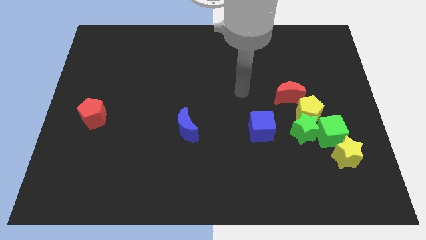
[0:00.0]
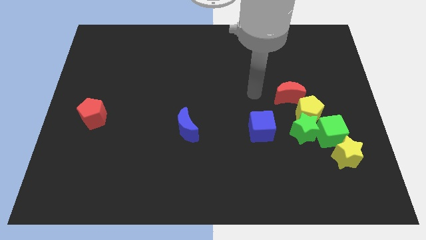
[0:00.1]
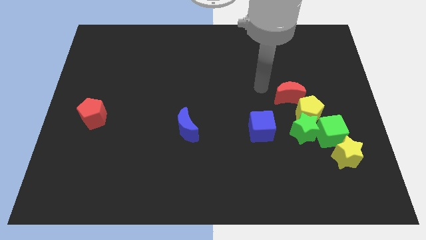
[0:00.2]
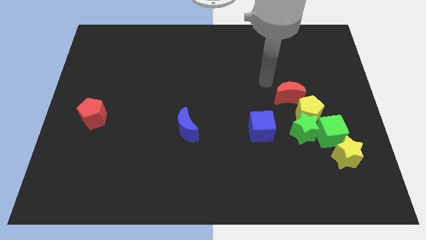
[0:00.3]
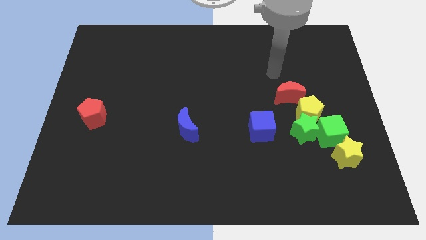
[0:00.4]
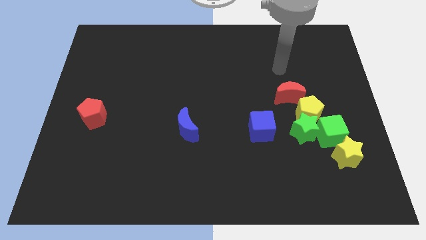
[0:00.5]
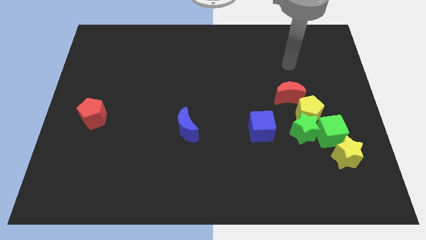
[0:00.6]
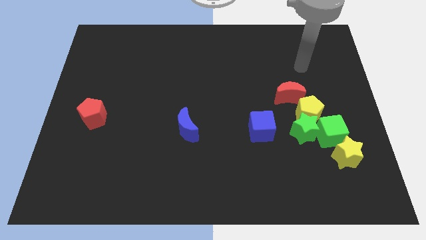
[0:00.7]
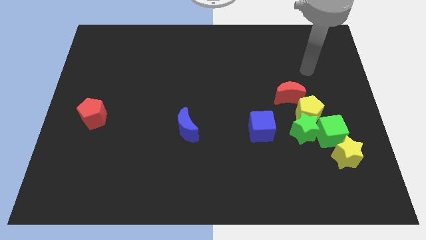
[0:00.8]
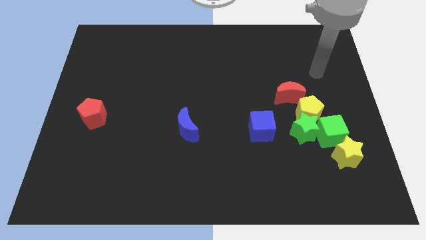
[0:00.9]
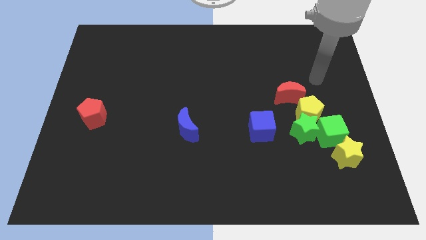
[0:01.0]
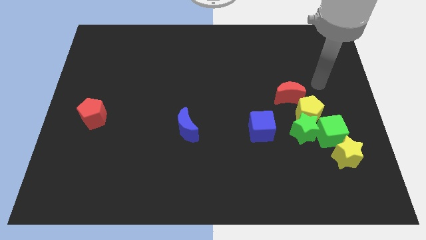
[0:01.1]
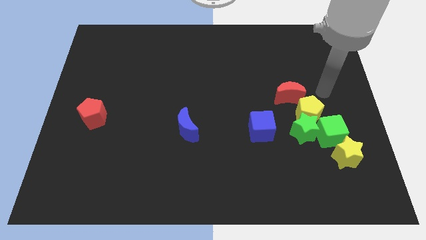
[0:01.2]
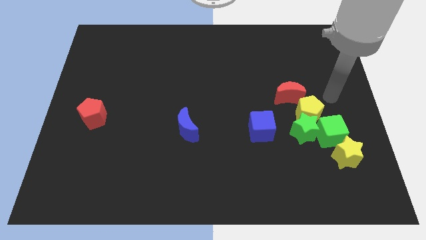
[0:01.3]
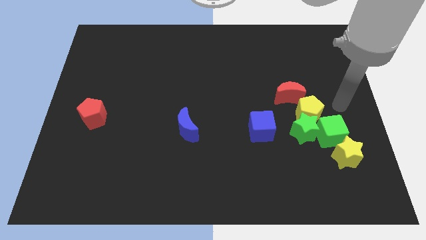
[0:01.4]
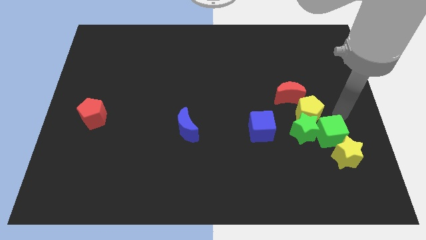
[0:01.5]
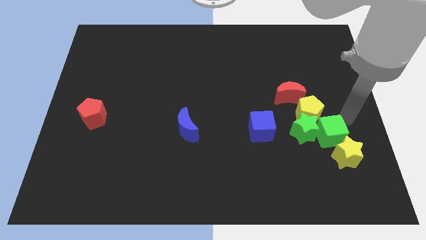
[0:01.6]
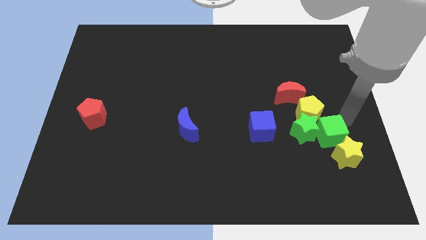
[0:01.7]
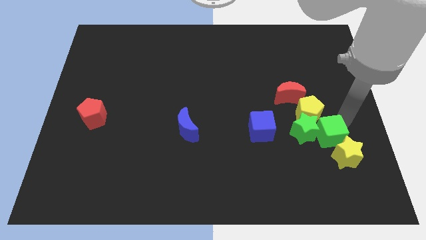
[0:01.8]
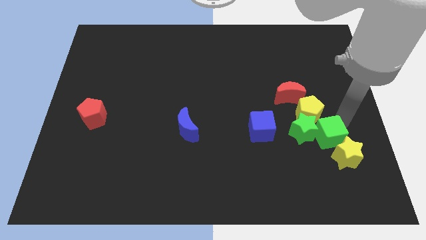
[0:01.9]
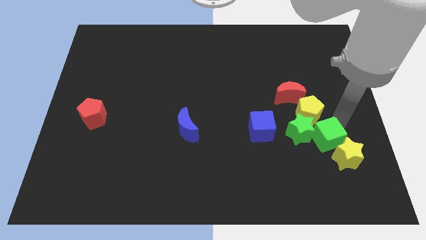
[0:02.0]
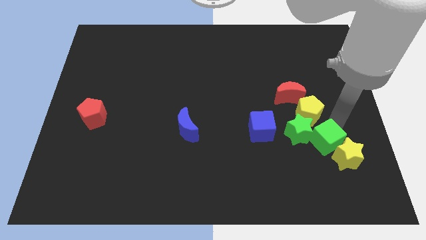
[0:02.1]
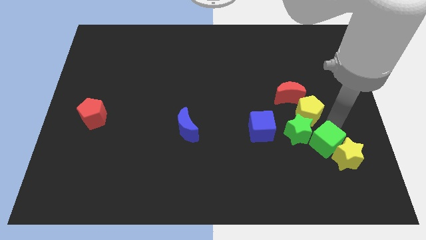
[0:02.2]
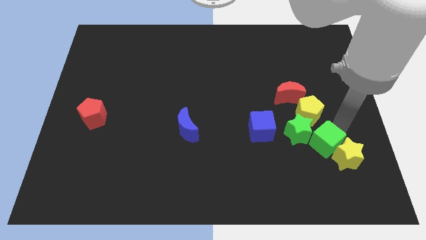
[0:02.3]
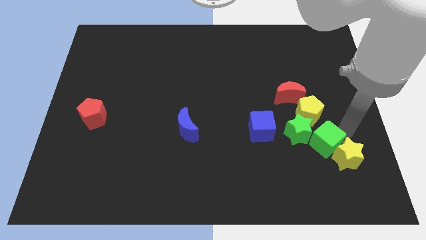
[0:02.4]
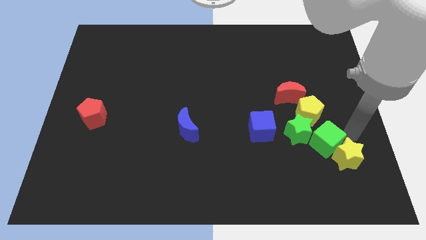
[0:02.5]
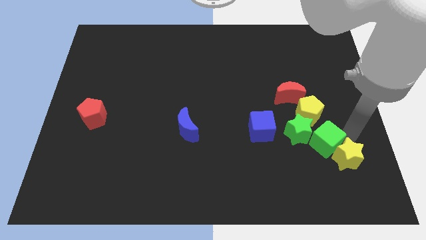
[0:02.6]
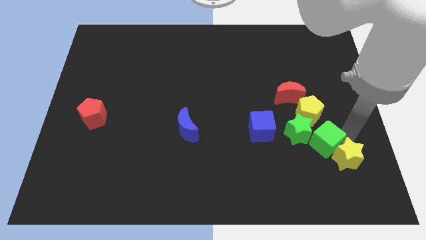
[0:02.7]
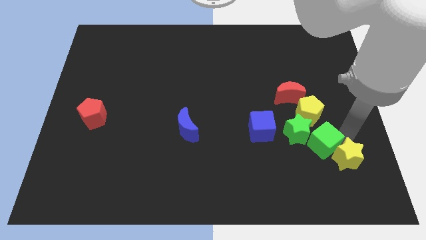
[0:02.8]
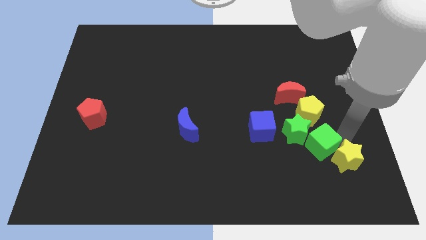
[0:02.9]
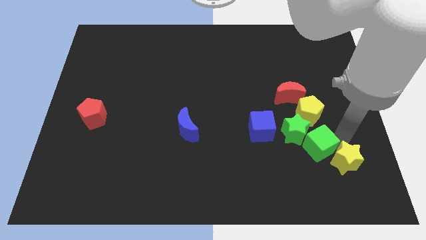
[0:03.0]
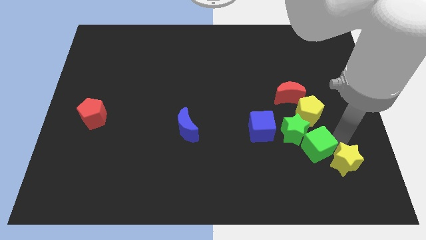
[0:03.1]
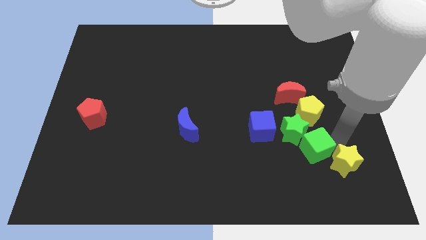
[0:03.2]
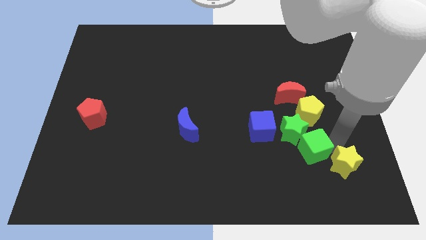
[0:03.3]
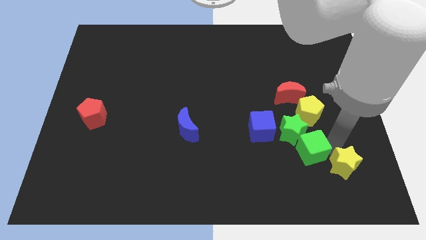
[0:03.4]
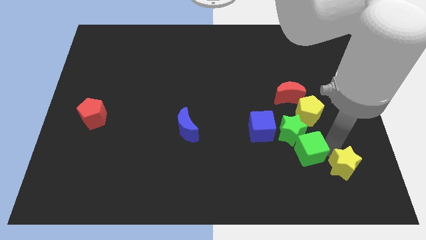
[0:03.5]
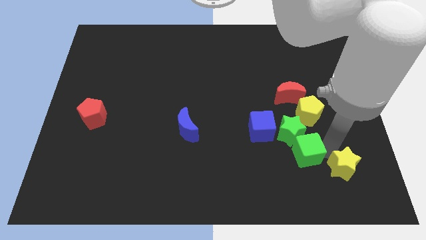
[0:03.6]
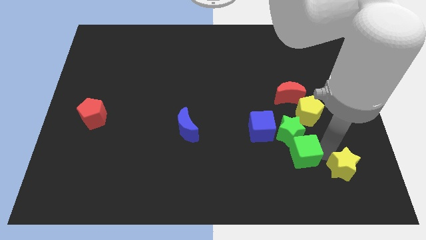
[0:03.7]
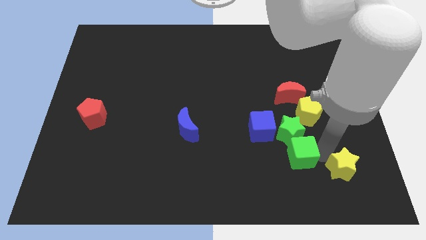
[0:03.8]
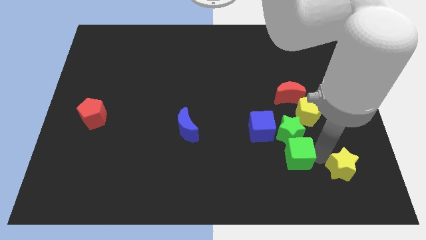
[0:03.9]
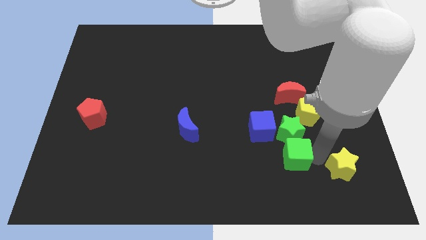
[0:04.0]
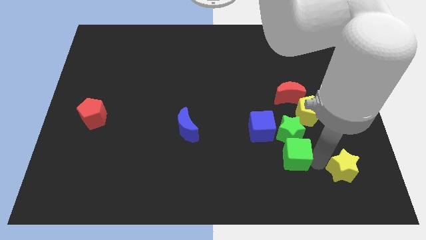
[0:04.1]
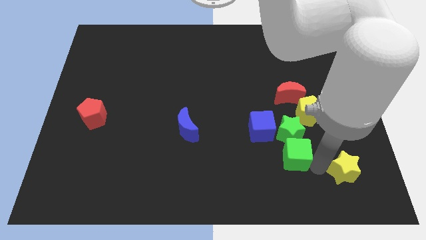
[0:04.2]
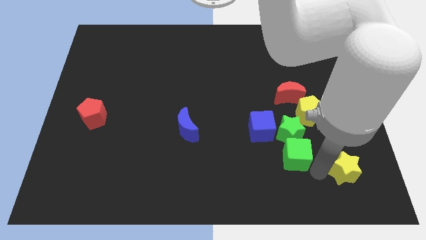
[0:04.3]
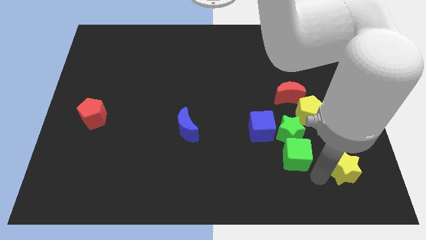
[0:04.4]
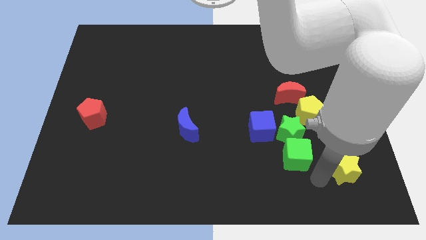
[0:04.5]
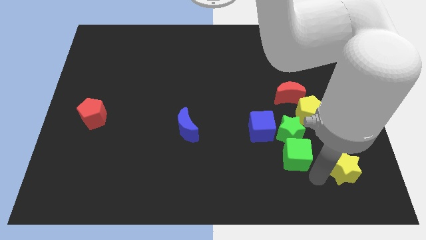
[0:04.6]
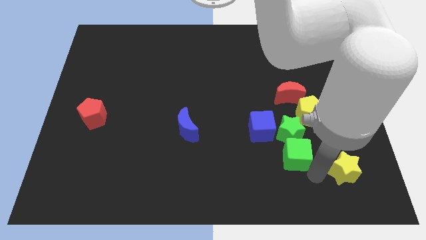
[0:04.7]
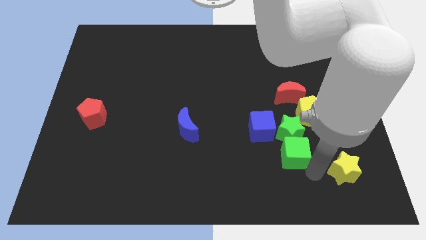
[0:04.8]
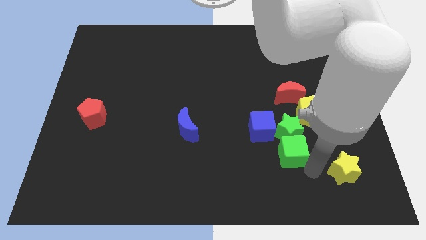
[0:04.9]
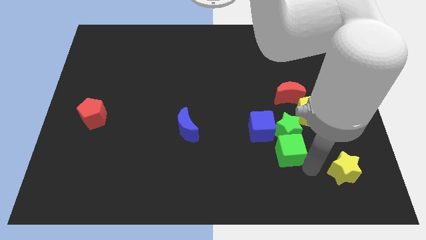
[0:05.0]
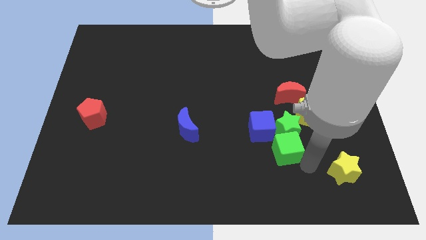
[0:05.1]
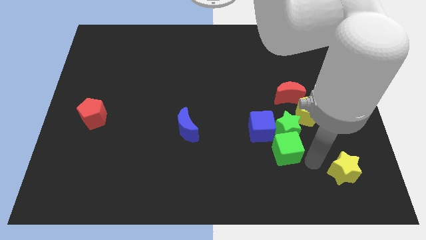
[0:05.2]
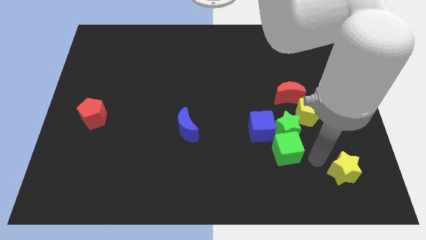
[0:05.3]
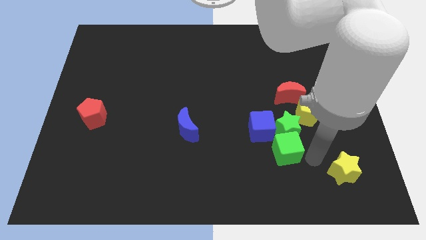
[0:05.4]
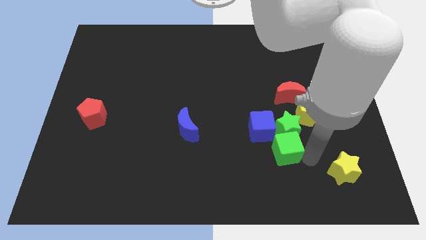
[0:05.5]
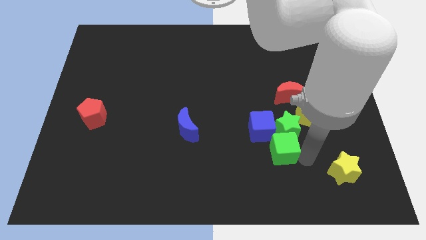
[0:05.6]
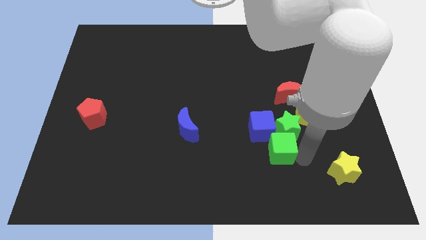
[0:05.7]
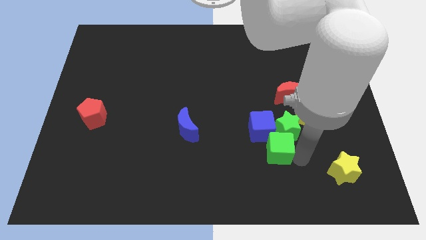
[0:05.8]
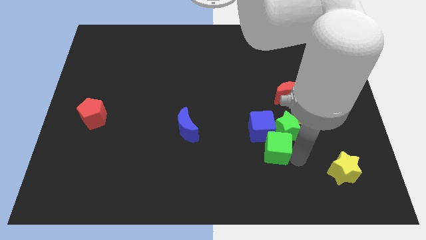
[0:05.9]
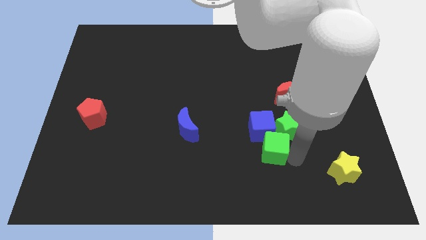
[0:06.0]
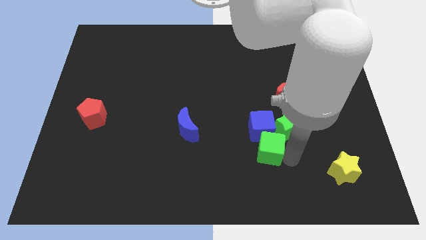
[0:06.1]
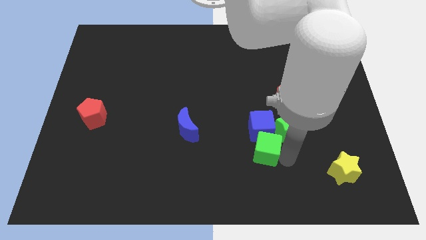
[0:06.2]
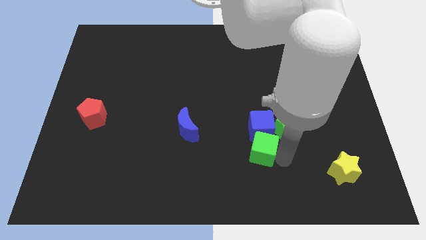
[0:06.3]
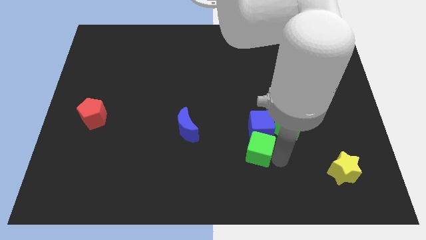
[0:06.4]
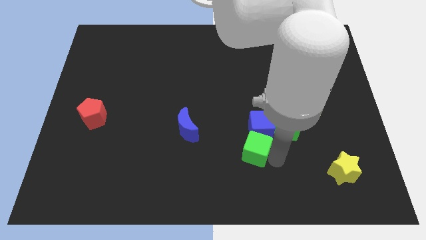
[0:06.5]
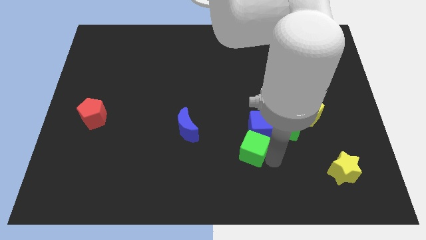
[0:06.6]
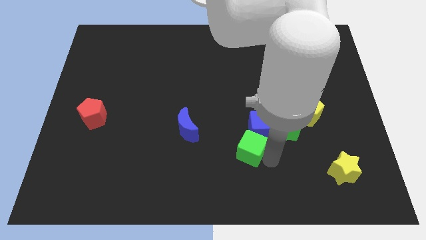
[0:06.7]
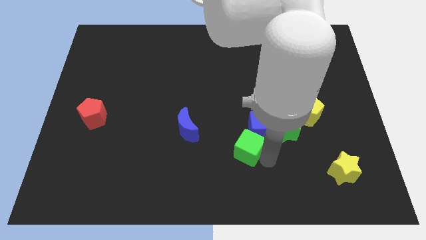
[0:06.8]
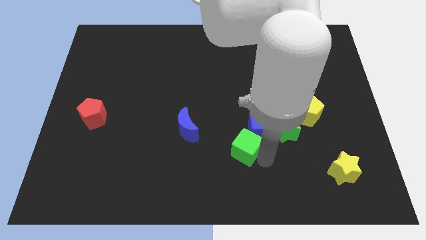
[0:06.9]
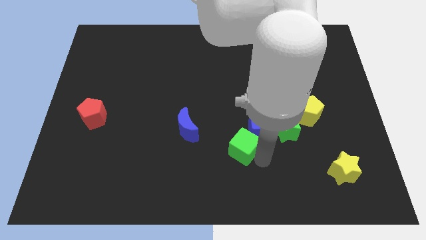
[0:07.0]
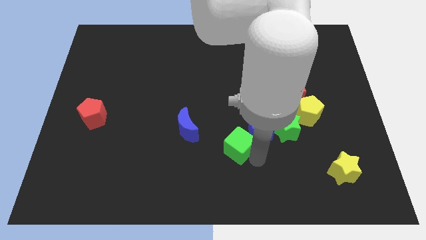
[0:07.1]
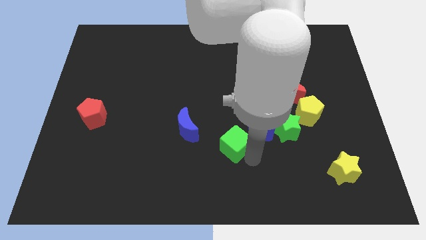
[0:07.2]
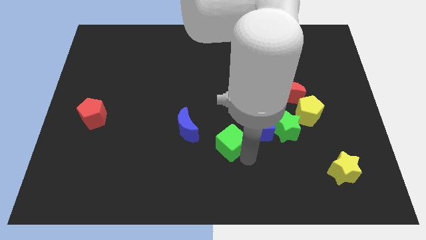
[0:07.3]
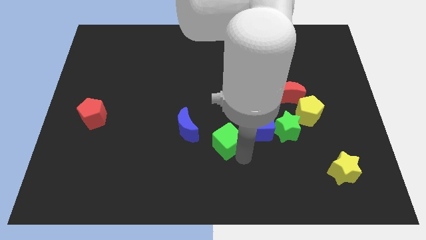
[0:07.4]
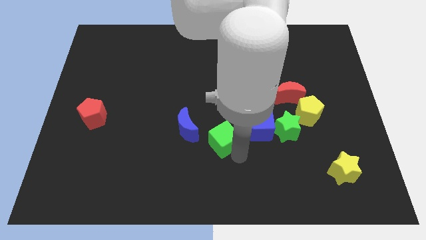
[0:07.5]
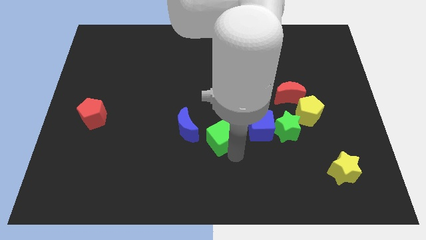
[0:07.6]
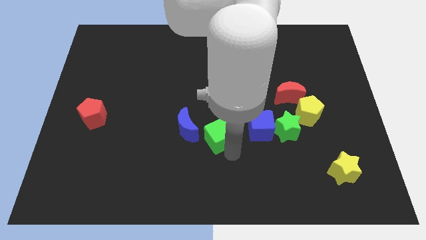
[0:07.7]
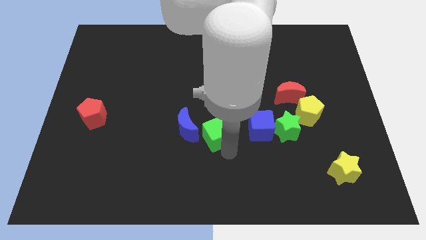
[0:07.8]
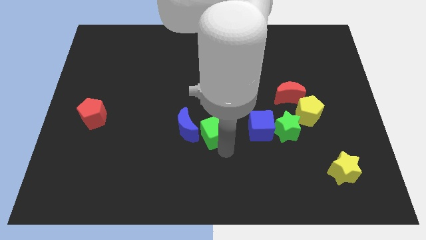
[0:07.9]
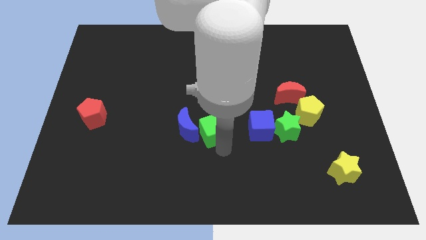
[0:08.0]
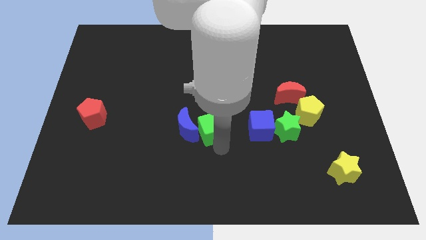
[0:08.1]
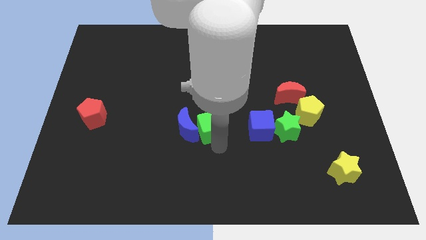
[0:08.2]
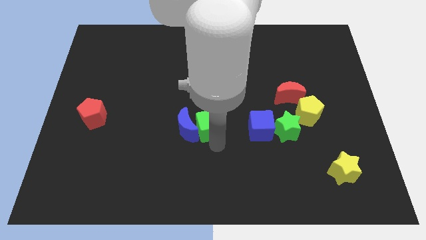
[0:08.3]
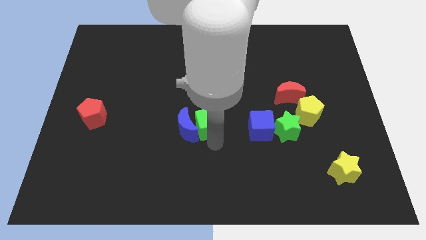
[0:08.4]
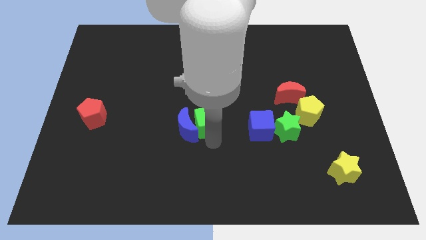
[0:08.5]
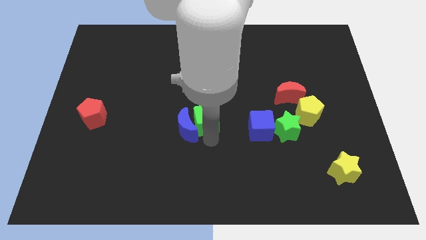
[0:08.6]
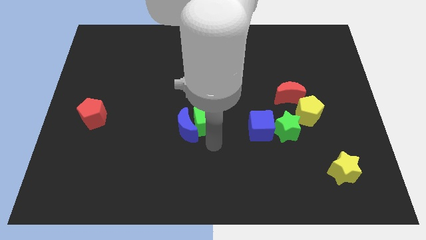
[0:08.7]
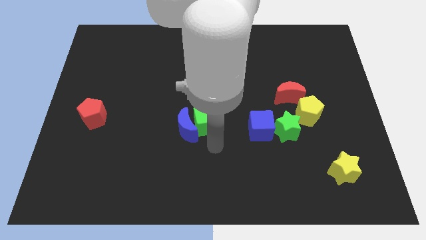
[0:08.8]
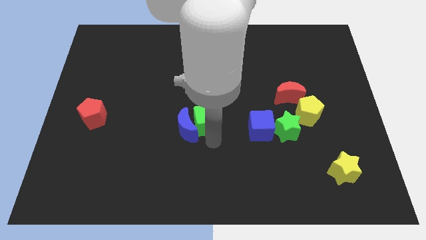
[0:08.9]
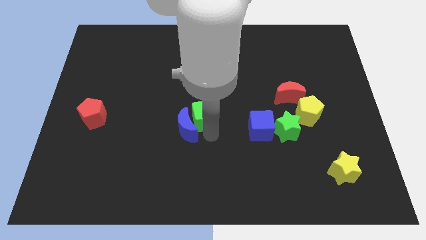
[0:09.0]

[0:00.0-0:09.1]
move the green cube to the top side of the blue moon
